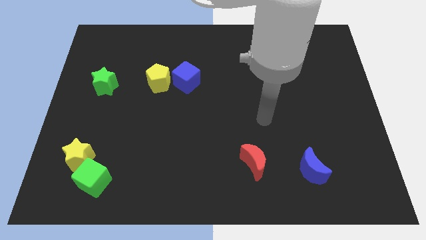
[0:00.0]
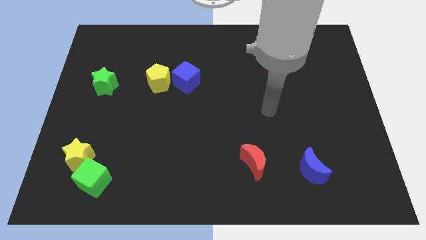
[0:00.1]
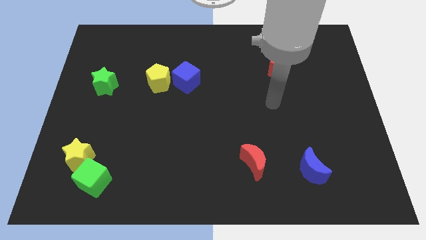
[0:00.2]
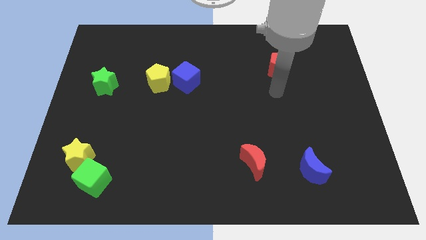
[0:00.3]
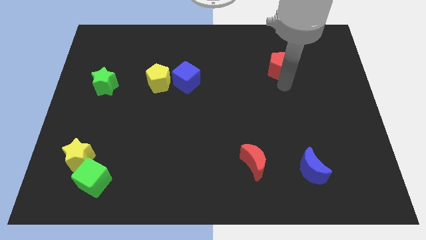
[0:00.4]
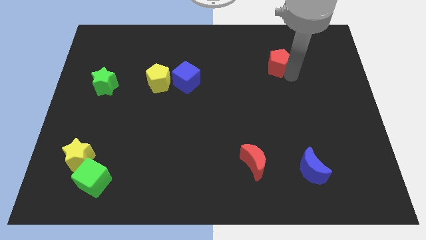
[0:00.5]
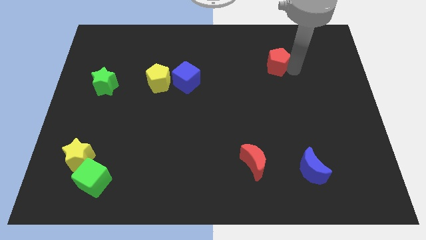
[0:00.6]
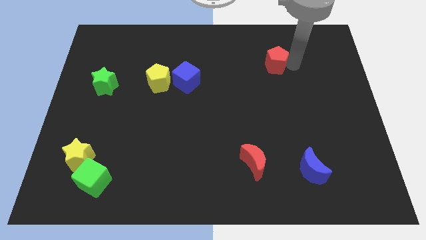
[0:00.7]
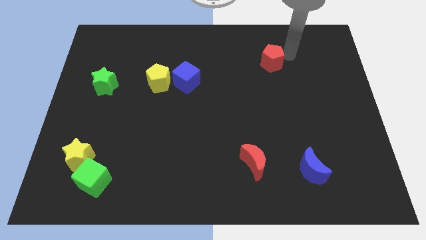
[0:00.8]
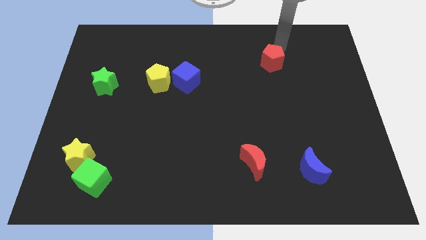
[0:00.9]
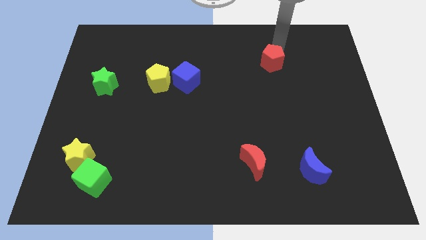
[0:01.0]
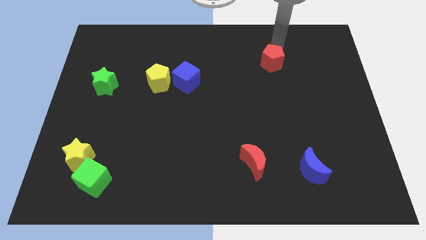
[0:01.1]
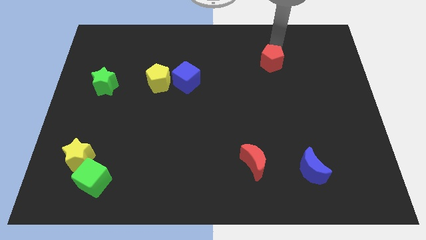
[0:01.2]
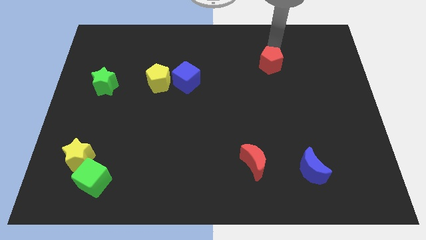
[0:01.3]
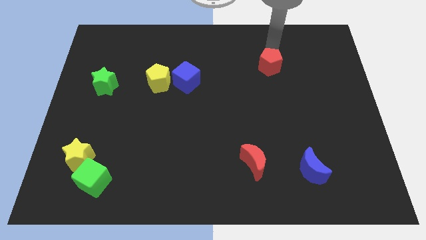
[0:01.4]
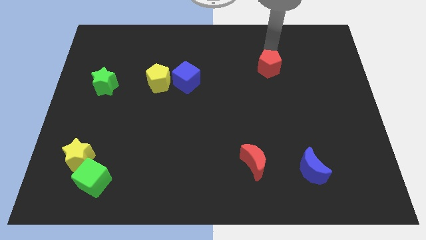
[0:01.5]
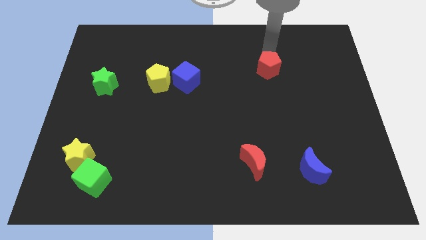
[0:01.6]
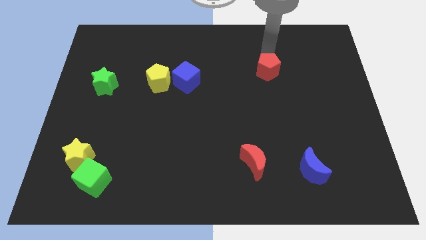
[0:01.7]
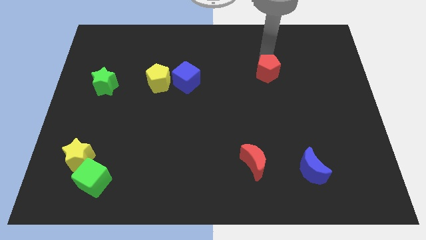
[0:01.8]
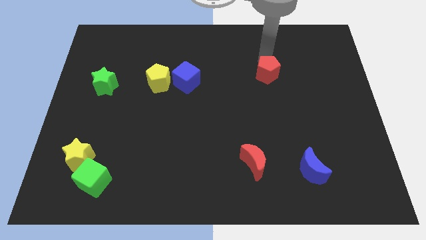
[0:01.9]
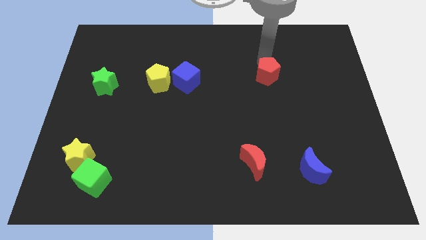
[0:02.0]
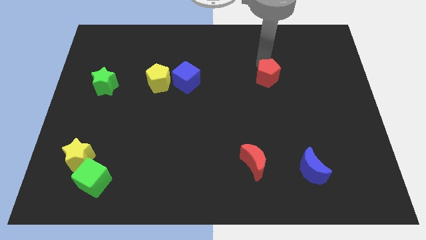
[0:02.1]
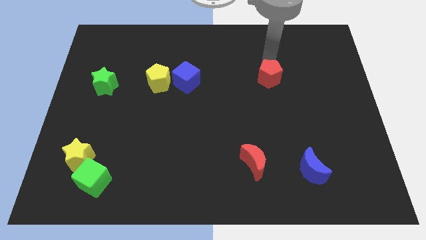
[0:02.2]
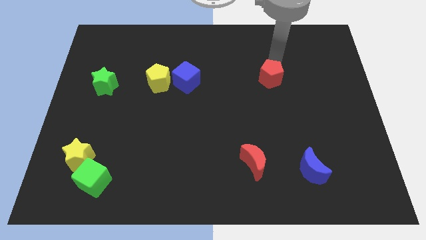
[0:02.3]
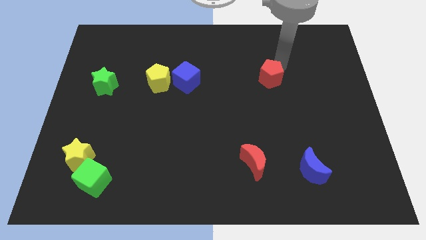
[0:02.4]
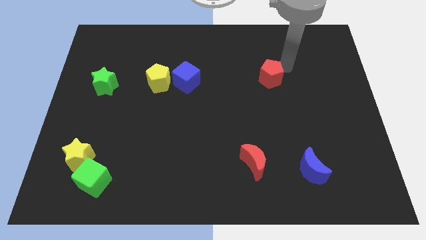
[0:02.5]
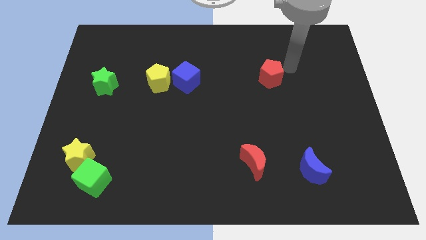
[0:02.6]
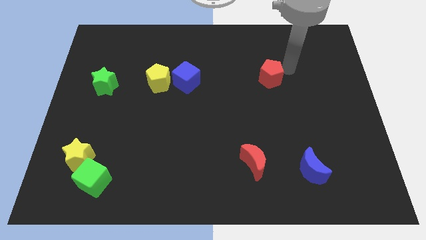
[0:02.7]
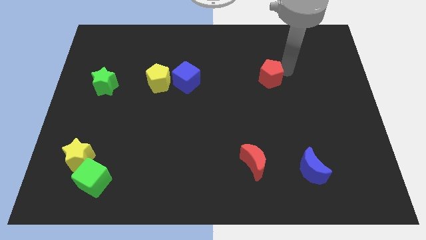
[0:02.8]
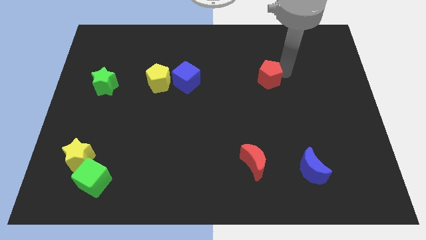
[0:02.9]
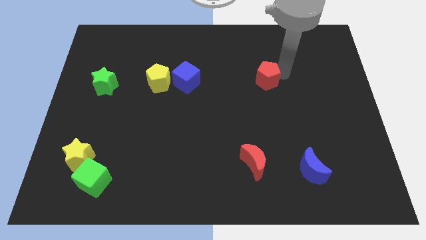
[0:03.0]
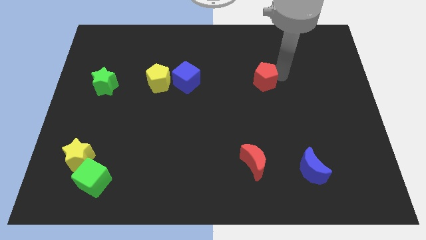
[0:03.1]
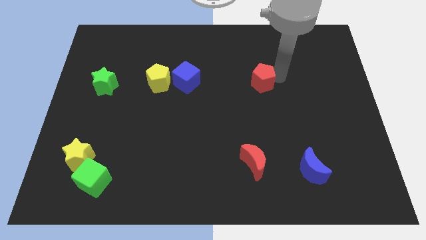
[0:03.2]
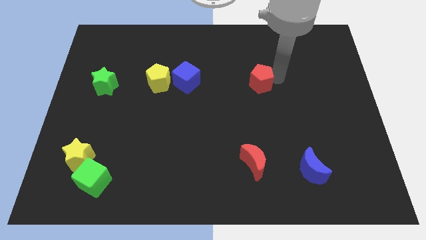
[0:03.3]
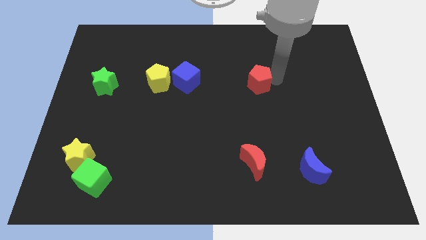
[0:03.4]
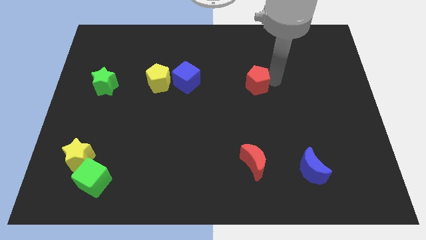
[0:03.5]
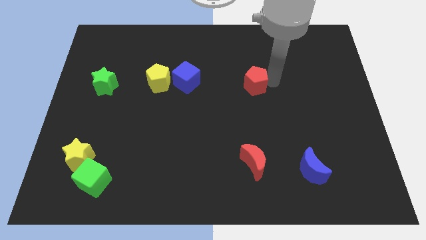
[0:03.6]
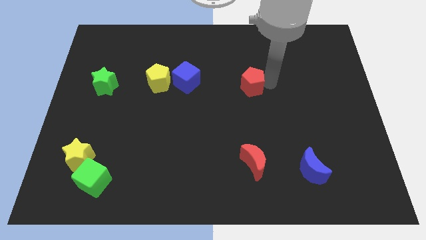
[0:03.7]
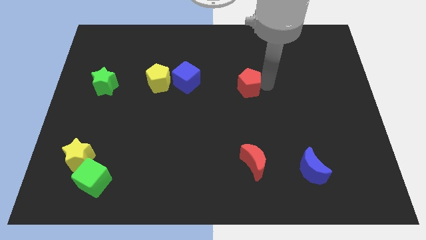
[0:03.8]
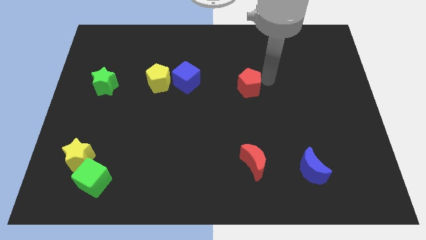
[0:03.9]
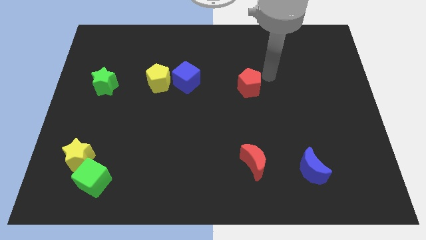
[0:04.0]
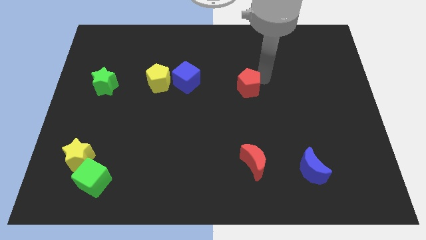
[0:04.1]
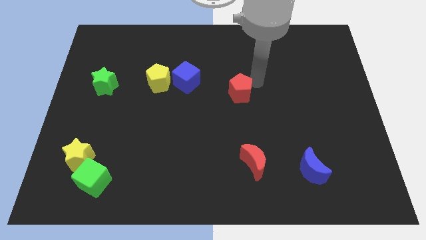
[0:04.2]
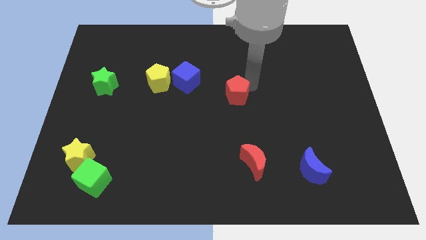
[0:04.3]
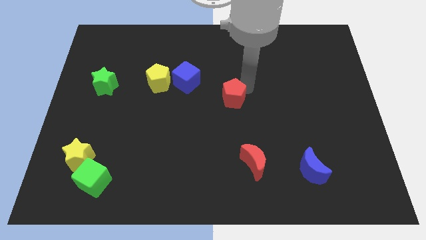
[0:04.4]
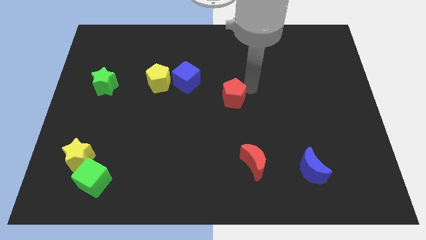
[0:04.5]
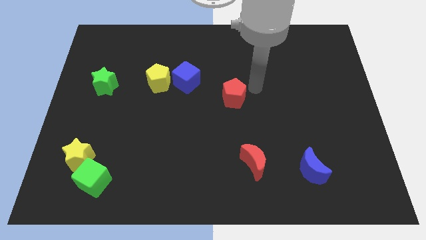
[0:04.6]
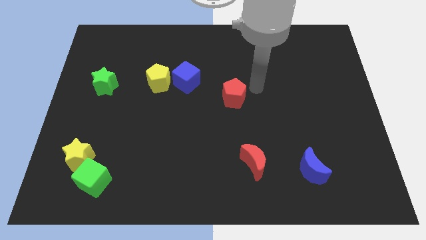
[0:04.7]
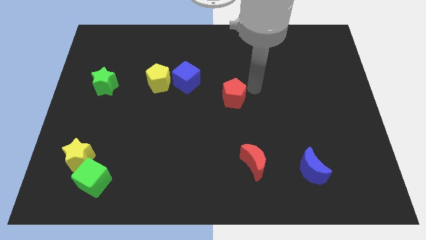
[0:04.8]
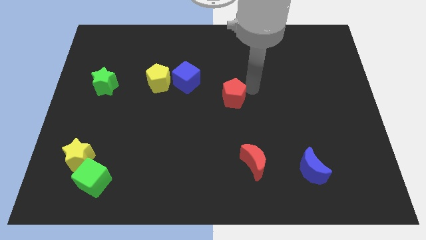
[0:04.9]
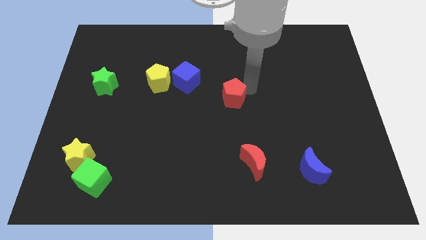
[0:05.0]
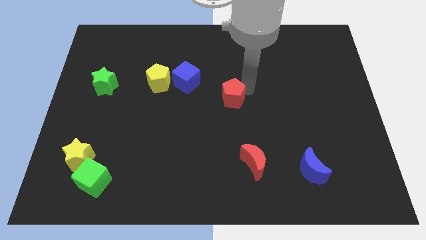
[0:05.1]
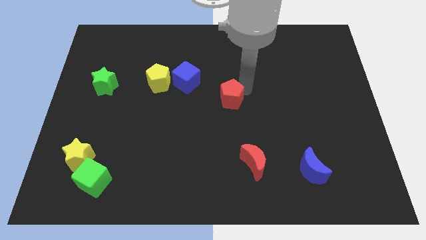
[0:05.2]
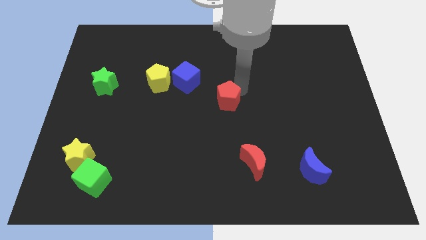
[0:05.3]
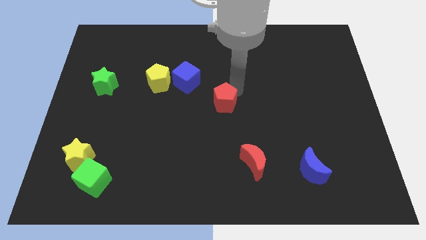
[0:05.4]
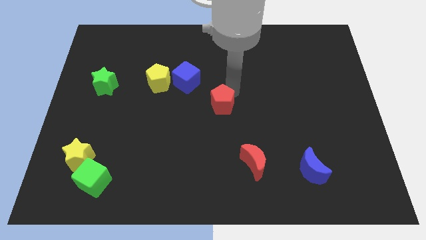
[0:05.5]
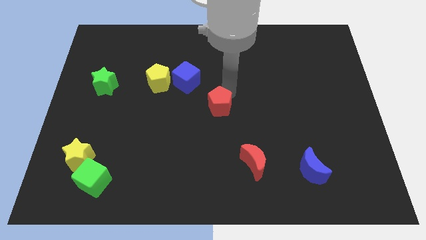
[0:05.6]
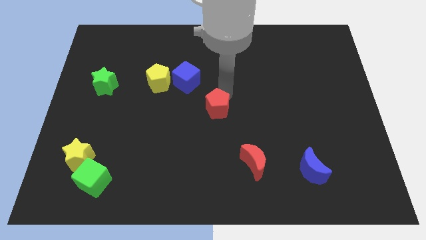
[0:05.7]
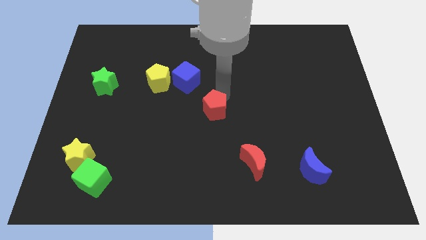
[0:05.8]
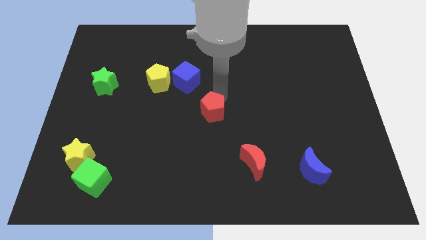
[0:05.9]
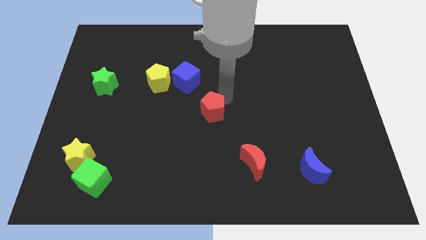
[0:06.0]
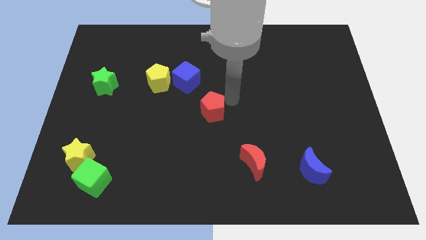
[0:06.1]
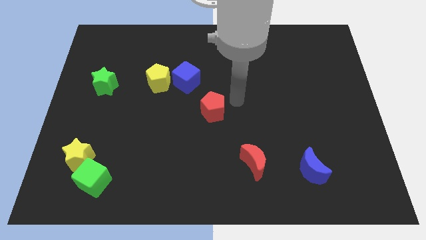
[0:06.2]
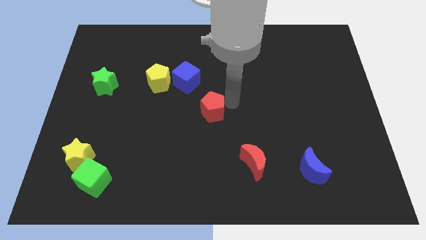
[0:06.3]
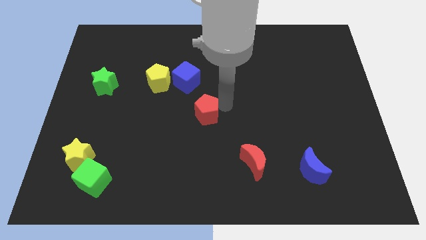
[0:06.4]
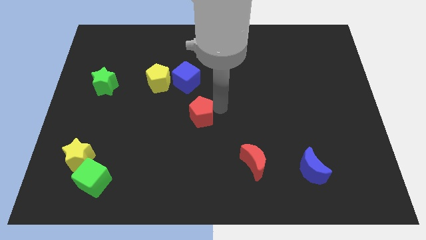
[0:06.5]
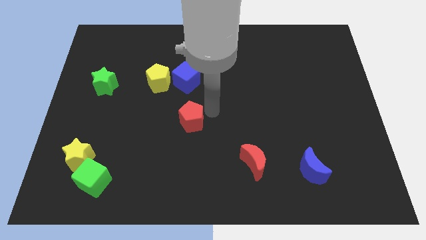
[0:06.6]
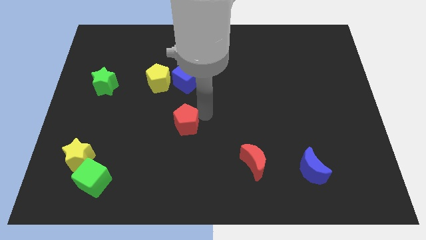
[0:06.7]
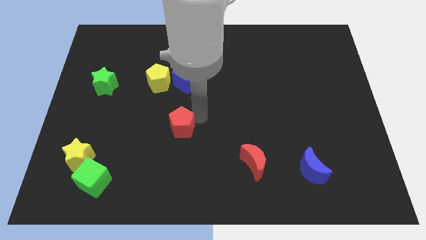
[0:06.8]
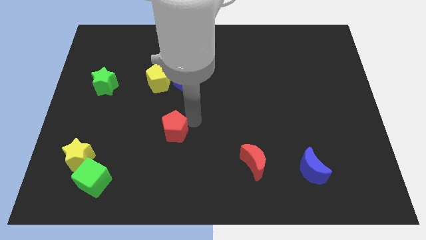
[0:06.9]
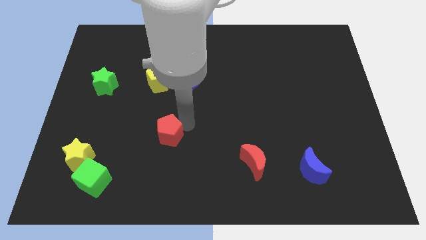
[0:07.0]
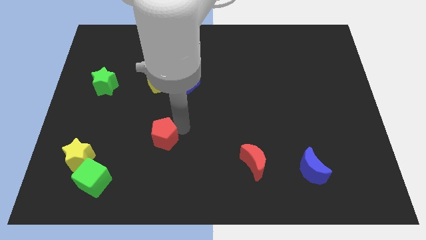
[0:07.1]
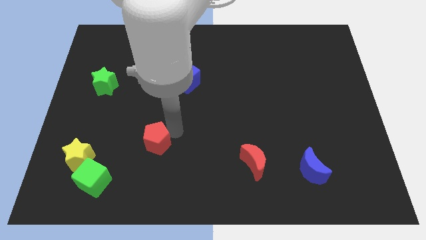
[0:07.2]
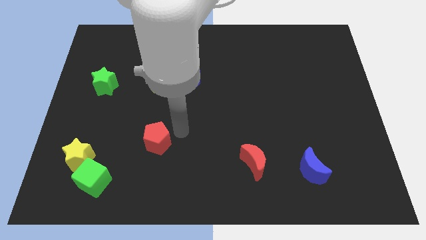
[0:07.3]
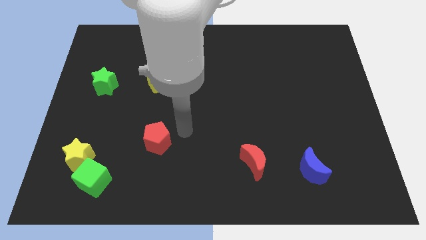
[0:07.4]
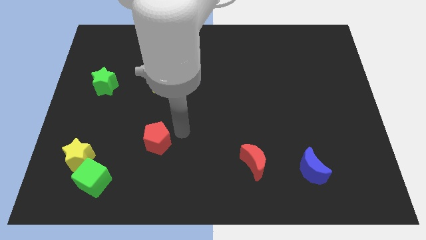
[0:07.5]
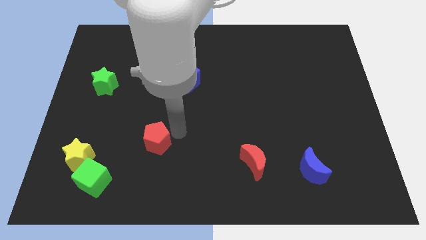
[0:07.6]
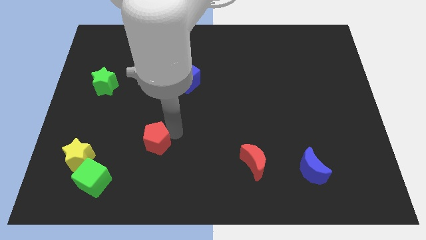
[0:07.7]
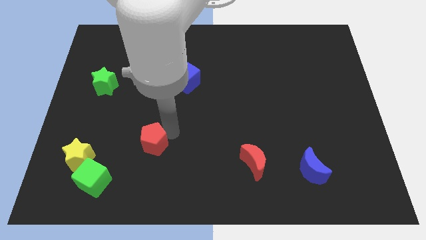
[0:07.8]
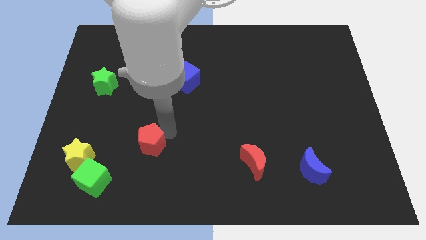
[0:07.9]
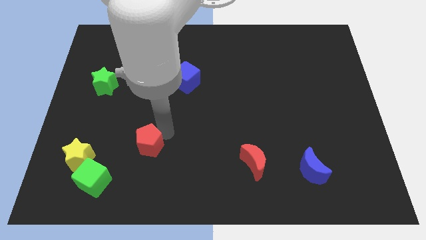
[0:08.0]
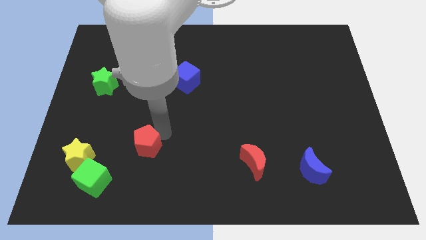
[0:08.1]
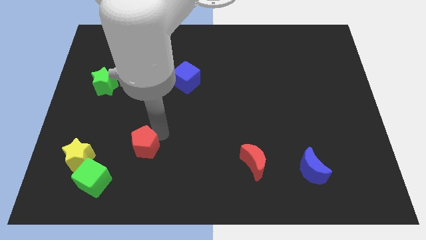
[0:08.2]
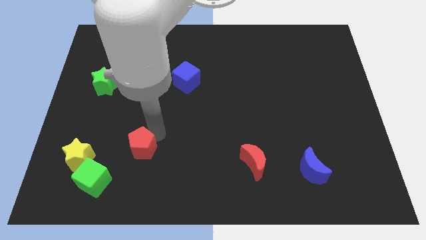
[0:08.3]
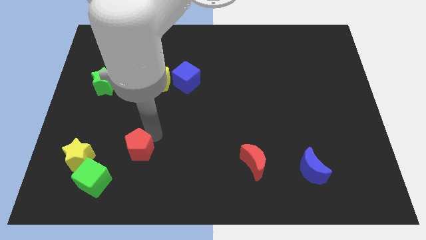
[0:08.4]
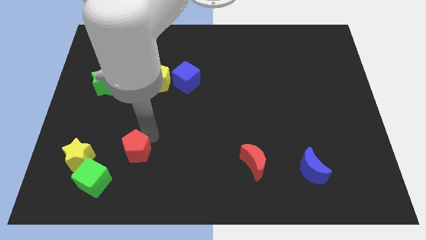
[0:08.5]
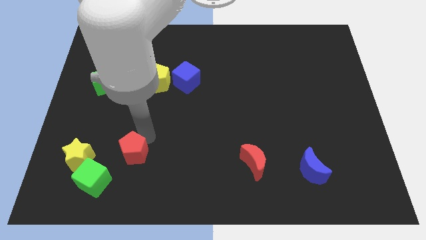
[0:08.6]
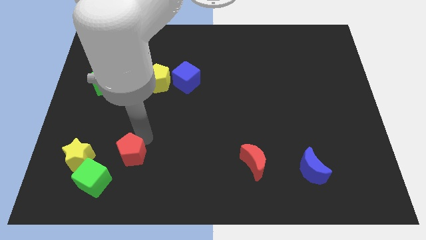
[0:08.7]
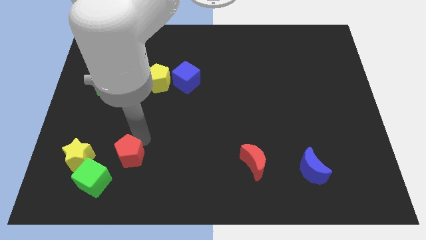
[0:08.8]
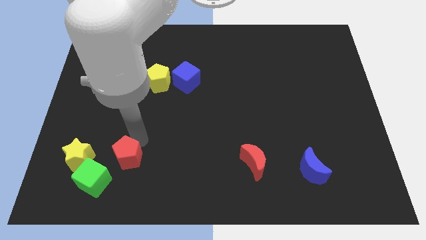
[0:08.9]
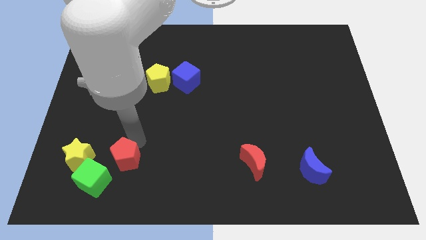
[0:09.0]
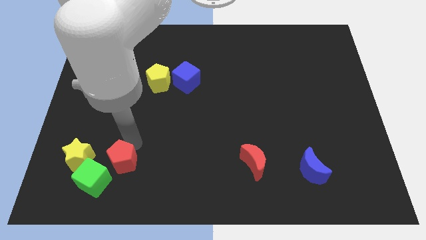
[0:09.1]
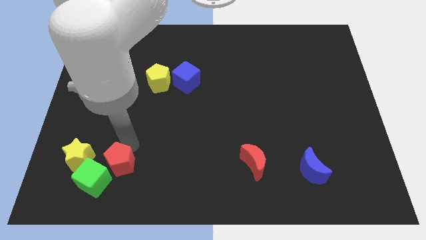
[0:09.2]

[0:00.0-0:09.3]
push the red pentagon towards the green cube
